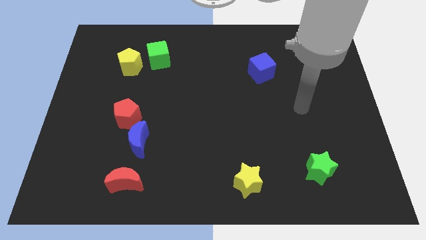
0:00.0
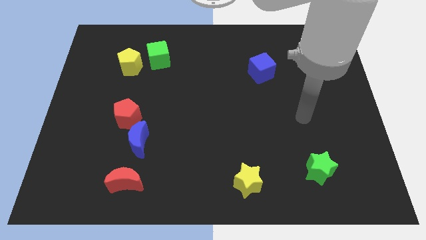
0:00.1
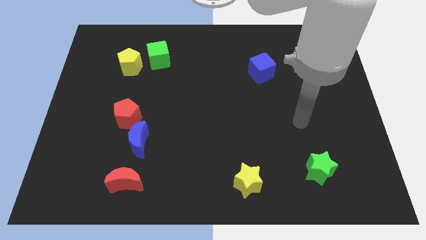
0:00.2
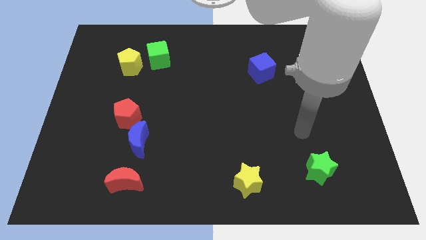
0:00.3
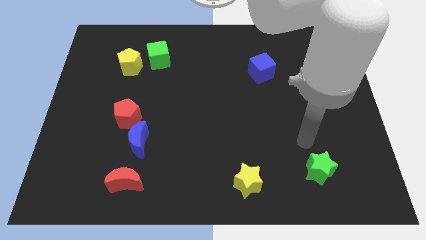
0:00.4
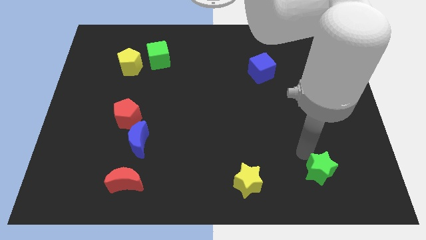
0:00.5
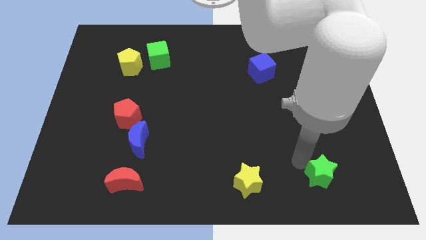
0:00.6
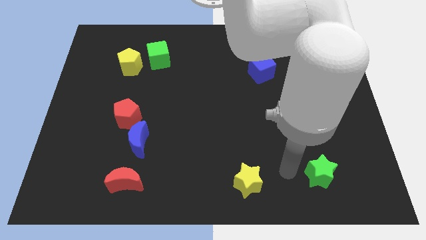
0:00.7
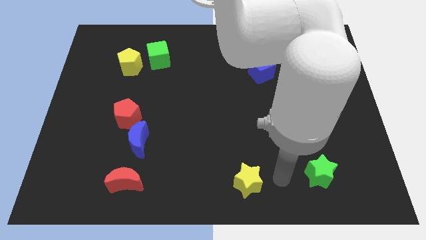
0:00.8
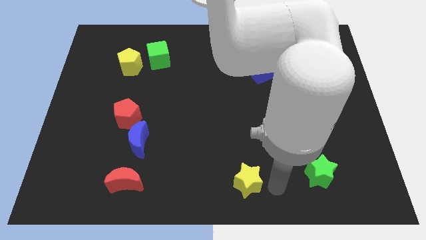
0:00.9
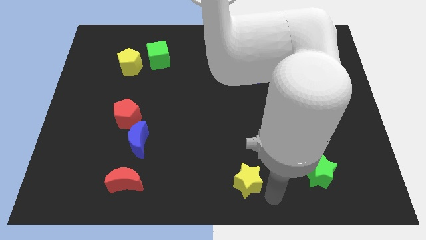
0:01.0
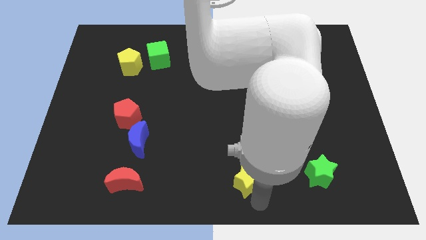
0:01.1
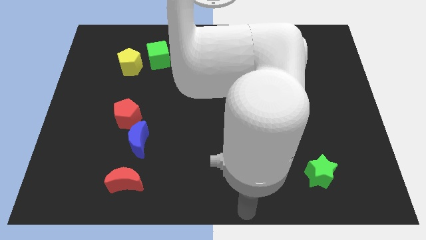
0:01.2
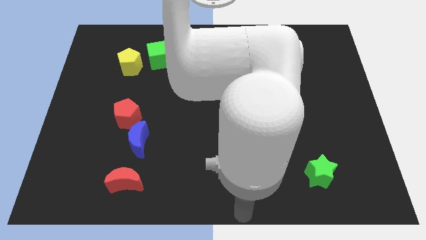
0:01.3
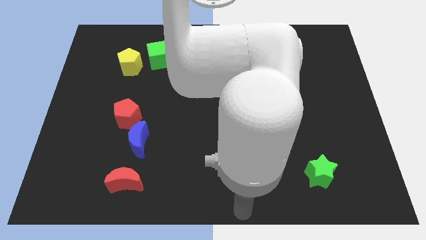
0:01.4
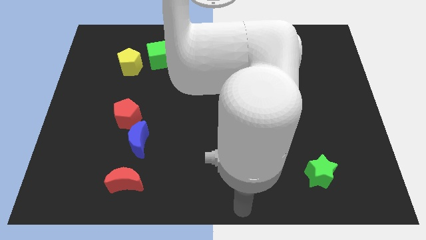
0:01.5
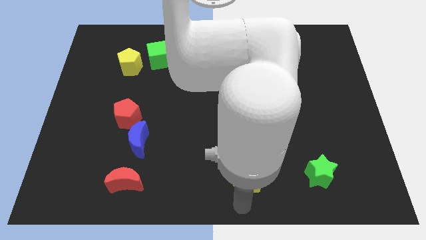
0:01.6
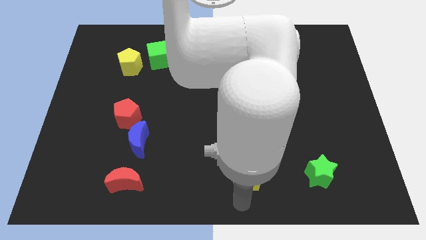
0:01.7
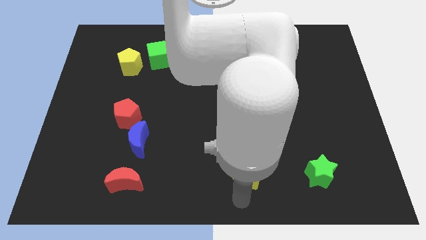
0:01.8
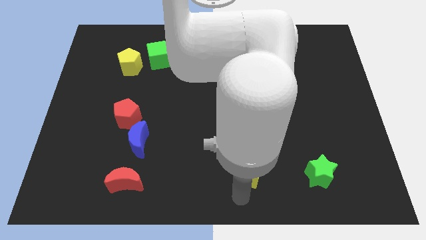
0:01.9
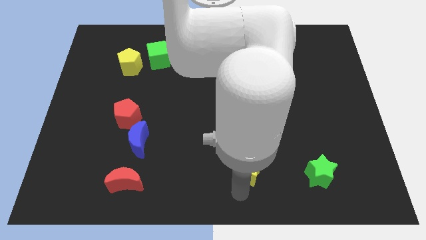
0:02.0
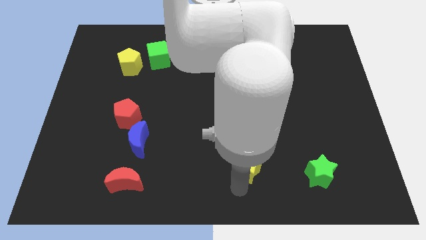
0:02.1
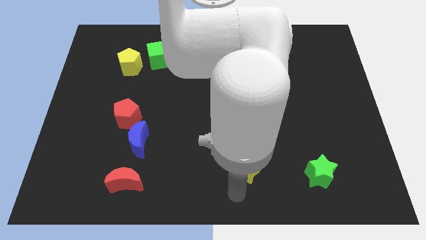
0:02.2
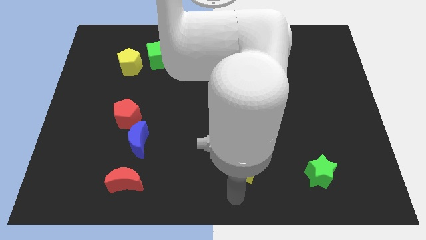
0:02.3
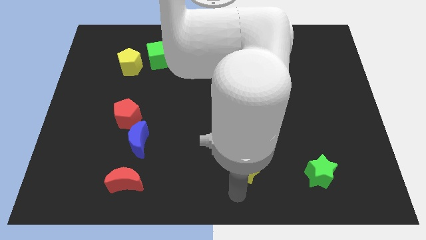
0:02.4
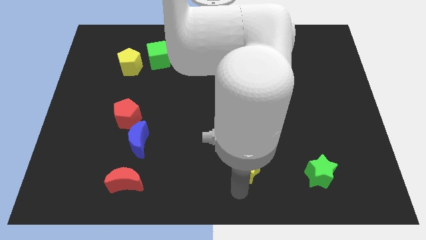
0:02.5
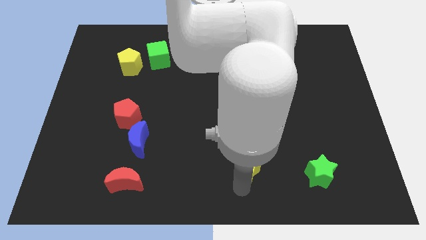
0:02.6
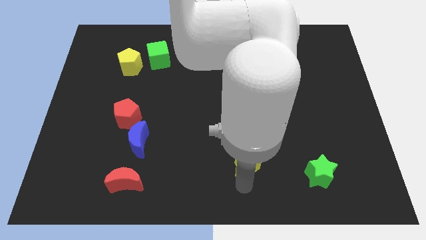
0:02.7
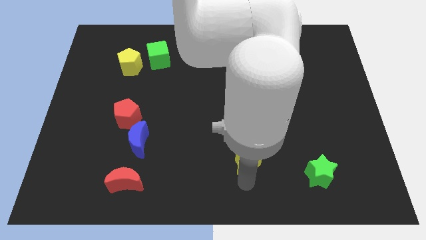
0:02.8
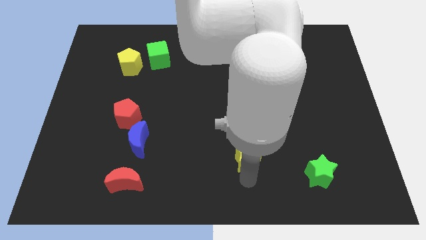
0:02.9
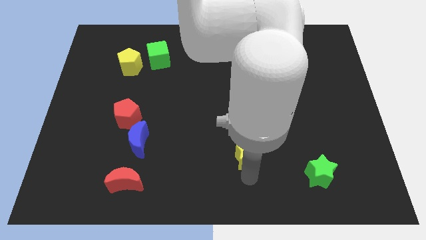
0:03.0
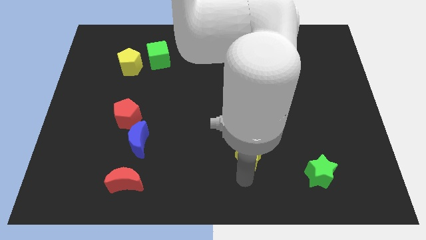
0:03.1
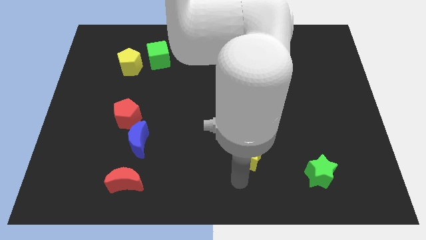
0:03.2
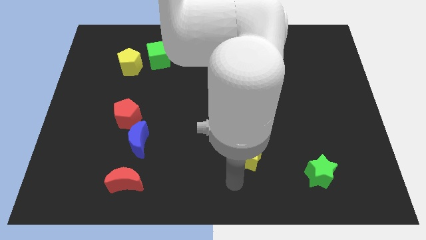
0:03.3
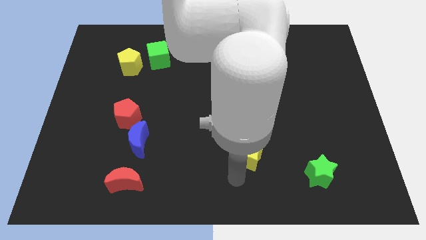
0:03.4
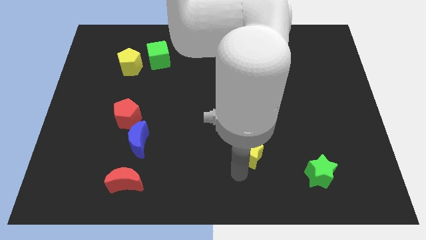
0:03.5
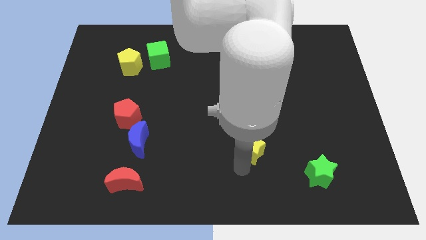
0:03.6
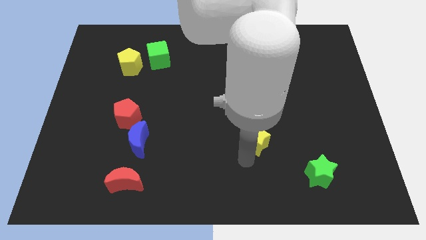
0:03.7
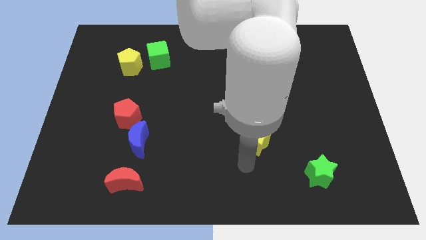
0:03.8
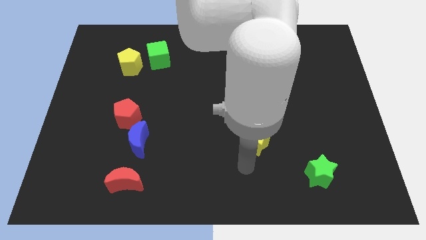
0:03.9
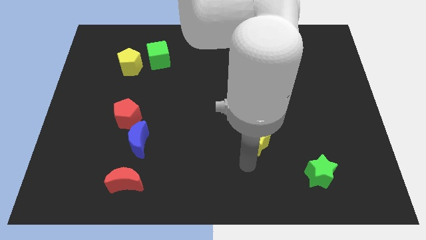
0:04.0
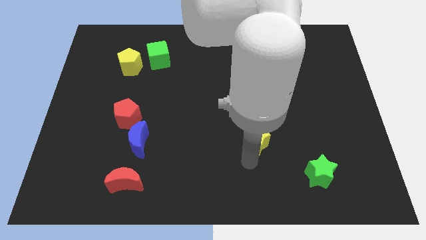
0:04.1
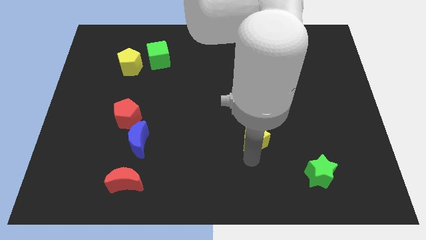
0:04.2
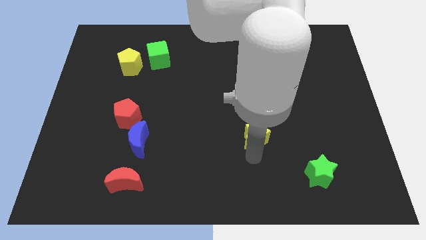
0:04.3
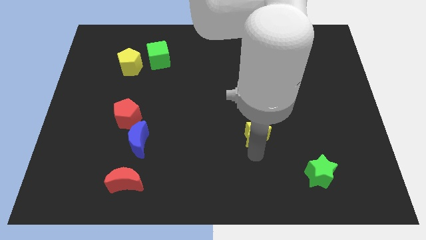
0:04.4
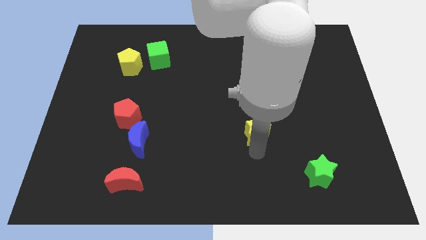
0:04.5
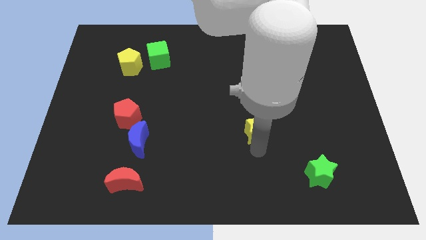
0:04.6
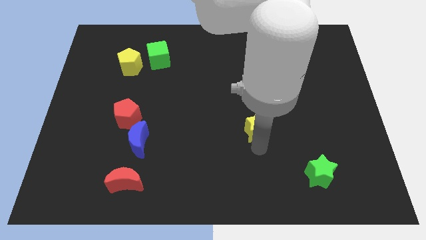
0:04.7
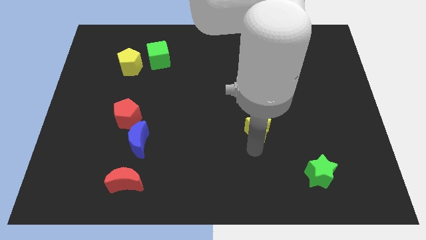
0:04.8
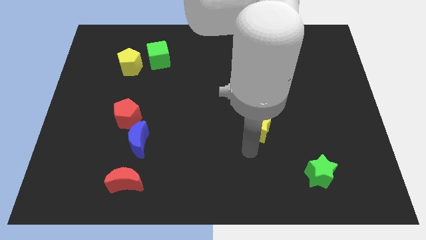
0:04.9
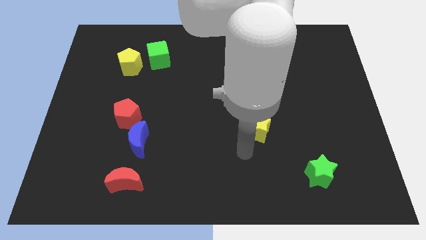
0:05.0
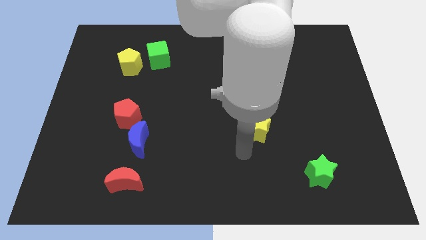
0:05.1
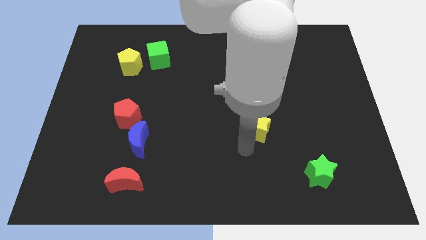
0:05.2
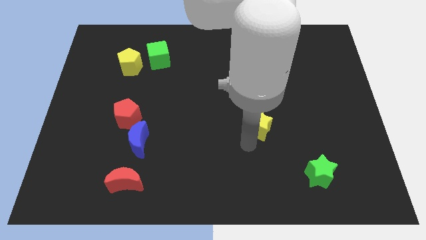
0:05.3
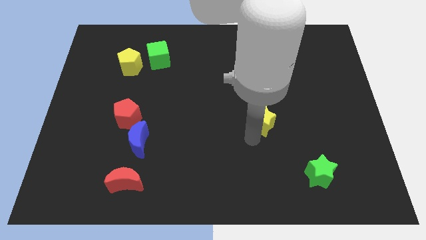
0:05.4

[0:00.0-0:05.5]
put the yellow star below the blue cube

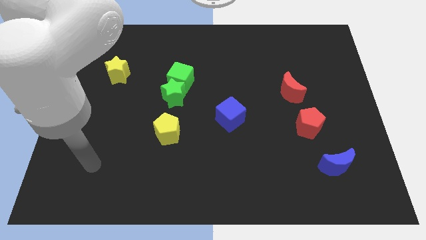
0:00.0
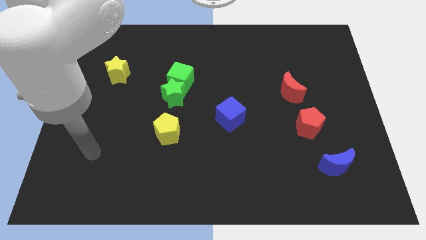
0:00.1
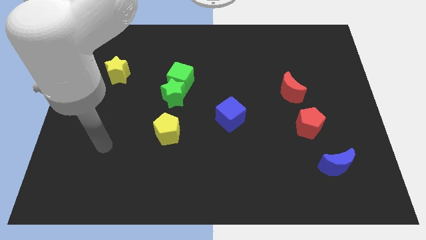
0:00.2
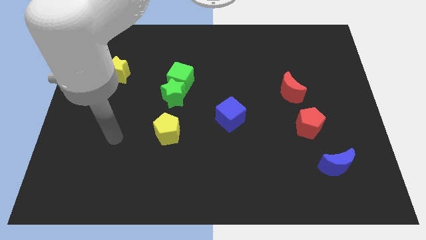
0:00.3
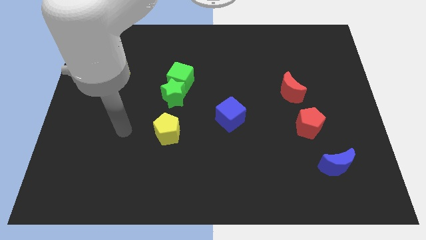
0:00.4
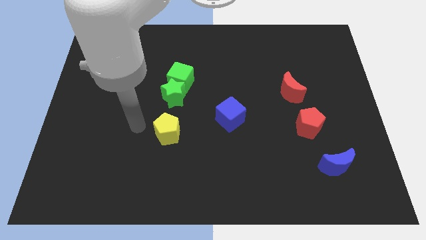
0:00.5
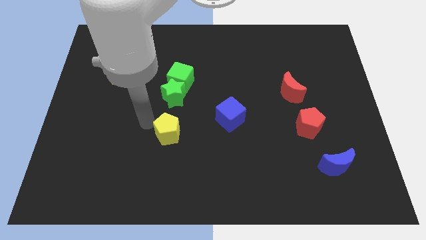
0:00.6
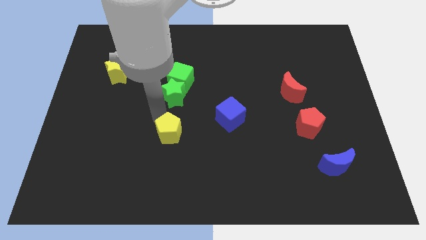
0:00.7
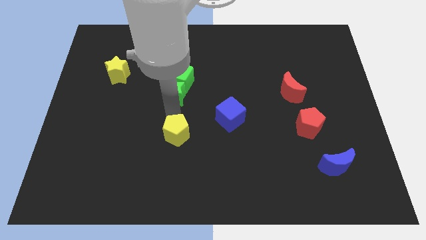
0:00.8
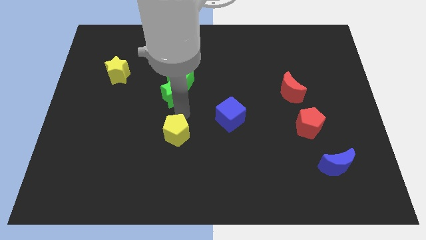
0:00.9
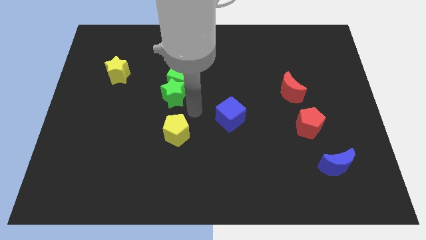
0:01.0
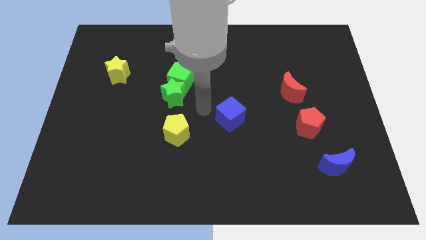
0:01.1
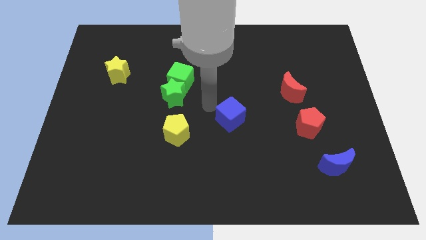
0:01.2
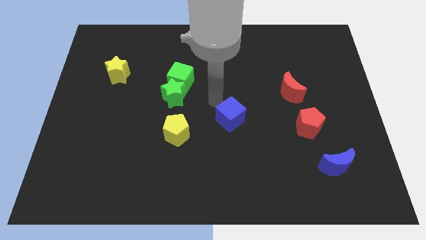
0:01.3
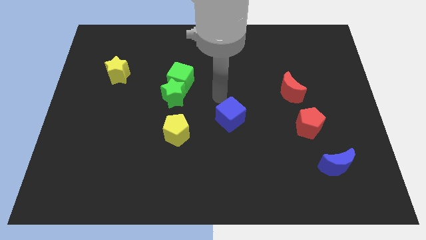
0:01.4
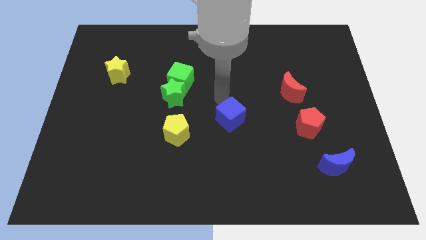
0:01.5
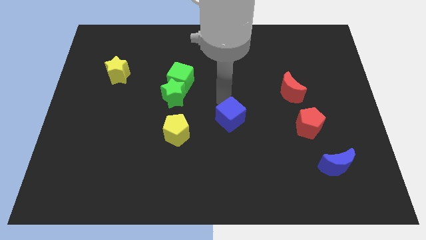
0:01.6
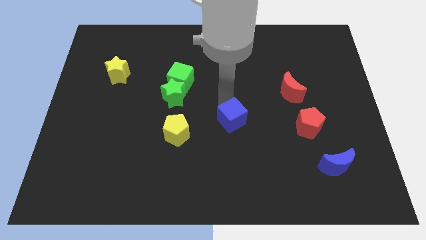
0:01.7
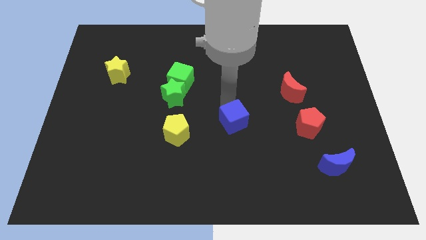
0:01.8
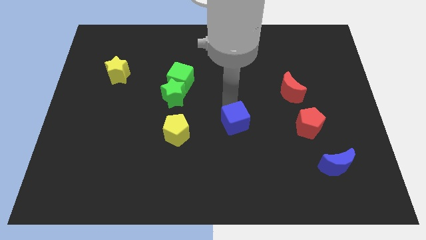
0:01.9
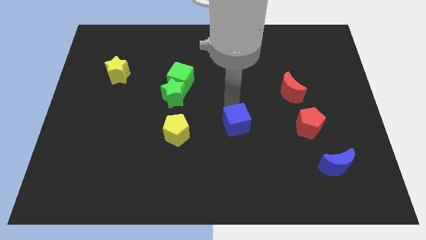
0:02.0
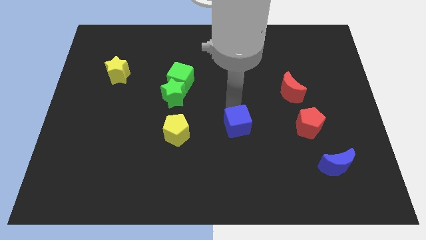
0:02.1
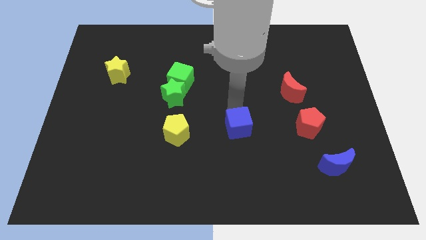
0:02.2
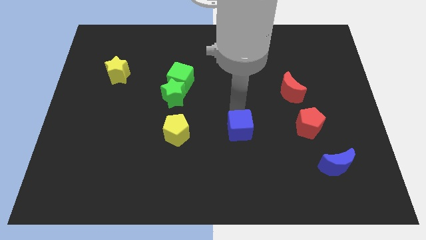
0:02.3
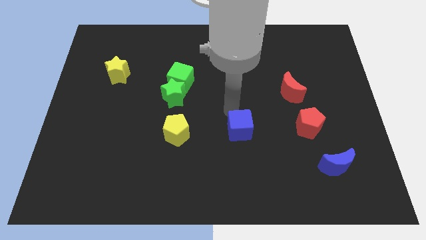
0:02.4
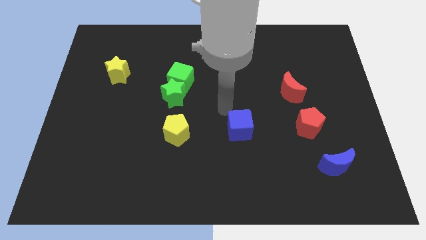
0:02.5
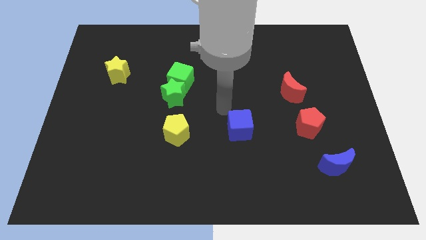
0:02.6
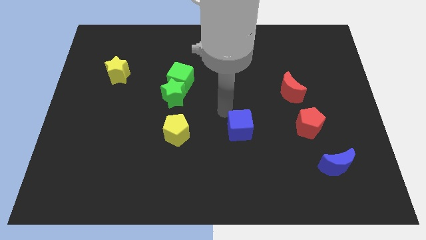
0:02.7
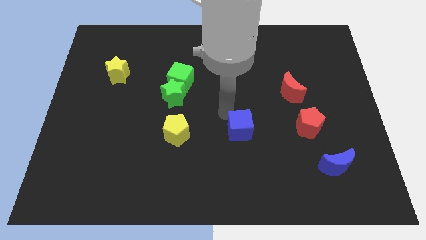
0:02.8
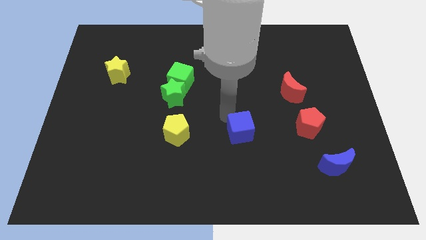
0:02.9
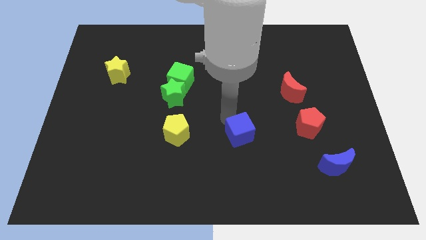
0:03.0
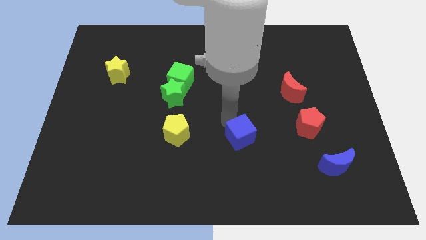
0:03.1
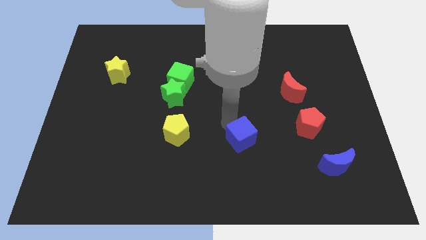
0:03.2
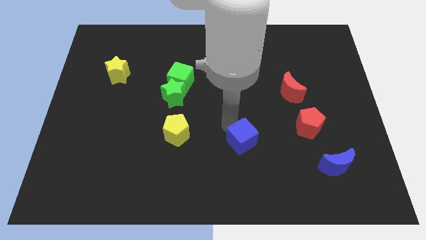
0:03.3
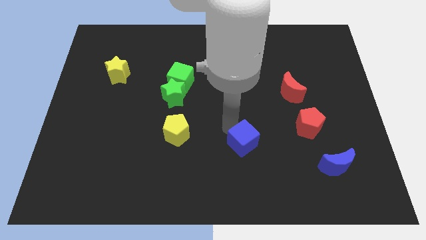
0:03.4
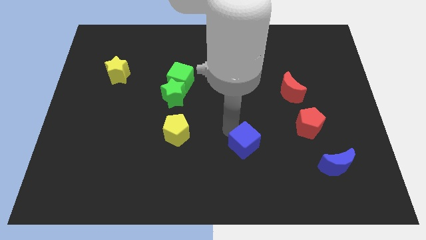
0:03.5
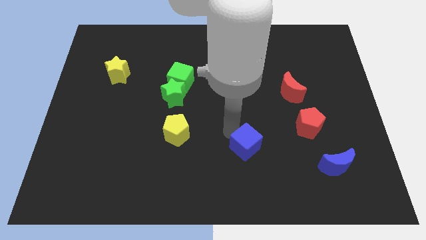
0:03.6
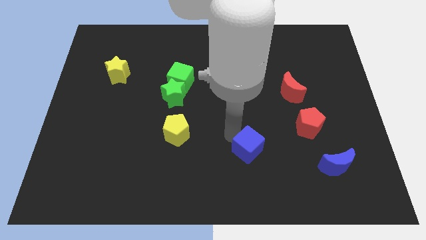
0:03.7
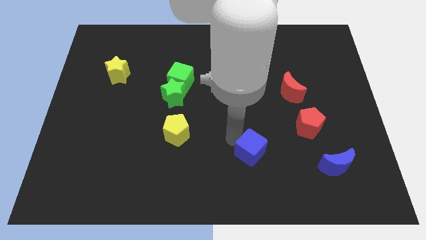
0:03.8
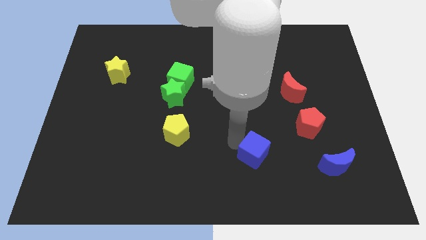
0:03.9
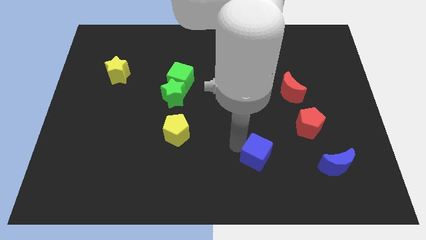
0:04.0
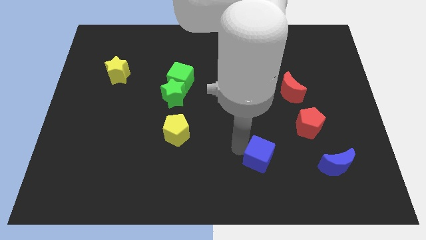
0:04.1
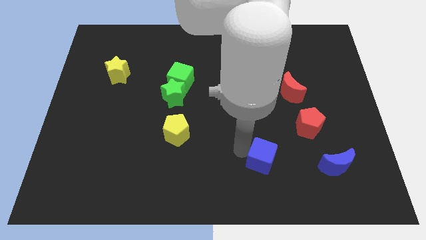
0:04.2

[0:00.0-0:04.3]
push the blue cube left of the blue moon
